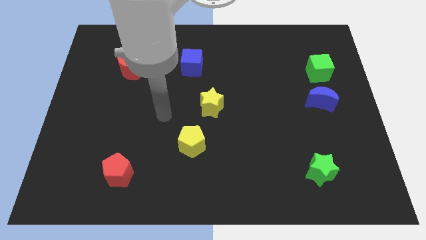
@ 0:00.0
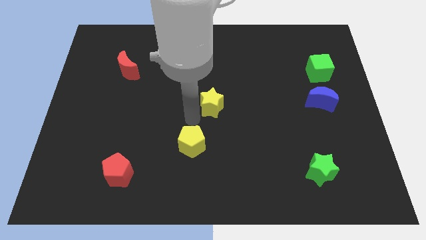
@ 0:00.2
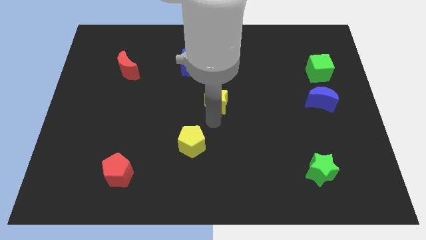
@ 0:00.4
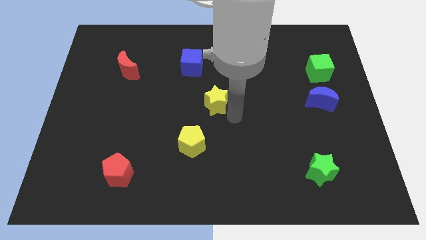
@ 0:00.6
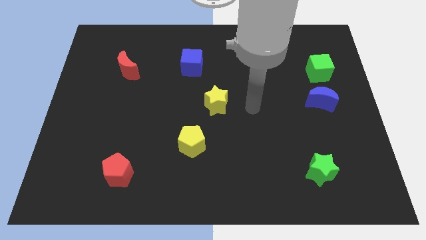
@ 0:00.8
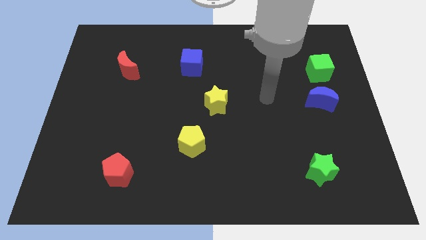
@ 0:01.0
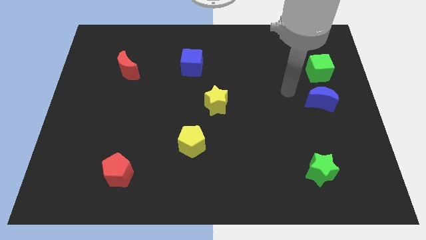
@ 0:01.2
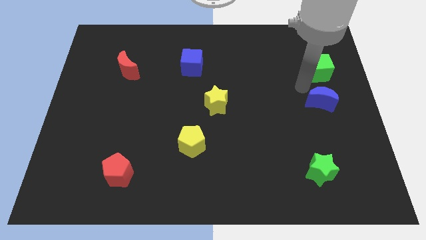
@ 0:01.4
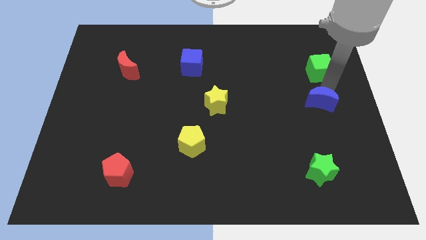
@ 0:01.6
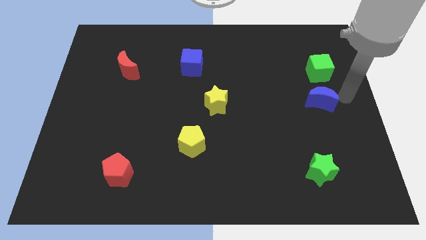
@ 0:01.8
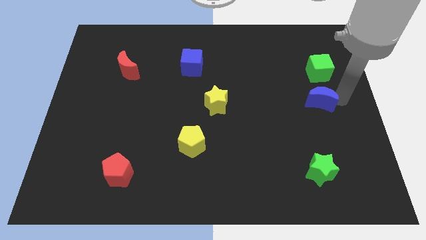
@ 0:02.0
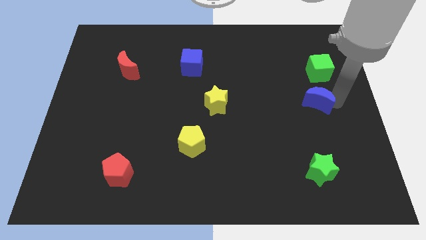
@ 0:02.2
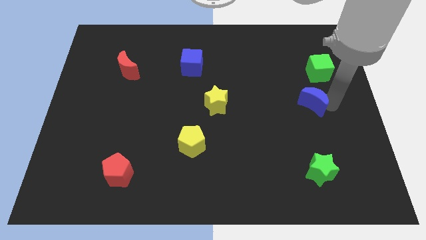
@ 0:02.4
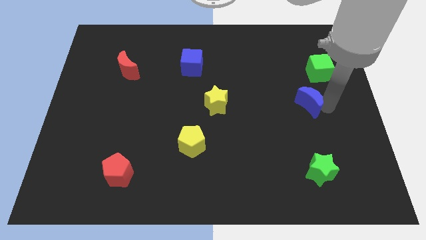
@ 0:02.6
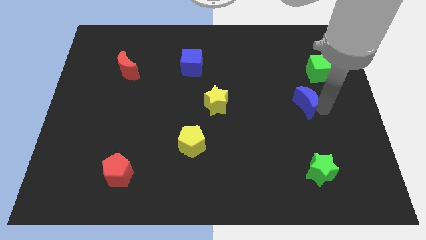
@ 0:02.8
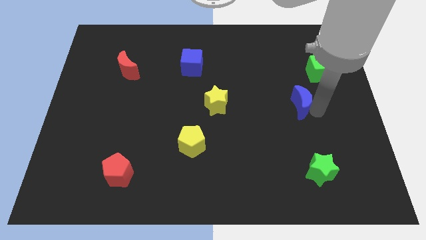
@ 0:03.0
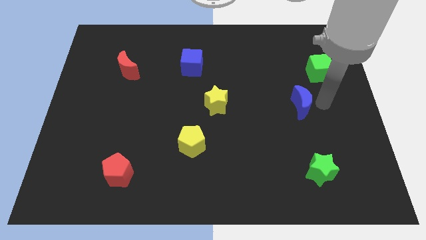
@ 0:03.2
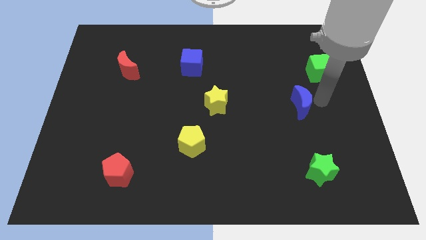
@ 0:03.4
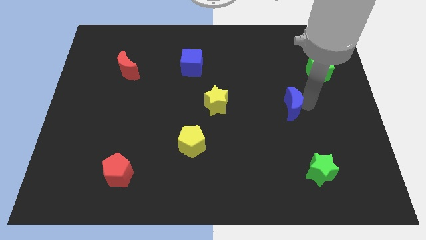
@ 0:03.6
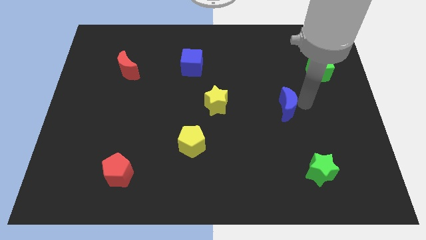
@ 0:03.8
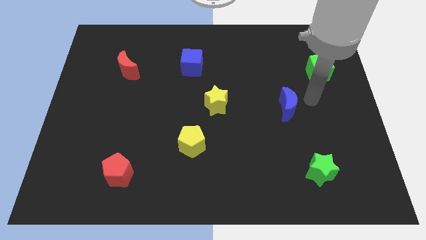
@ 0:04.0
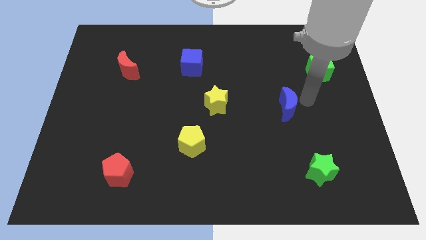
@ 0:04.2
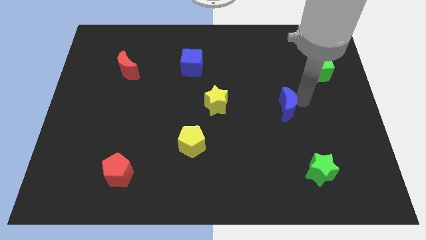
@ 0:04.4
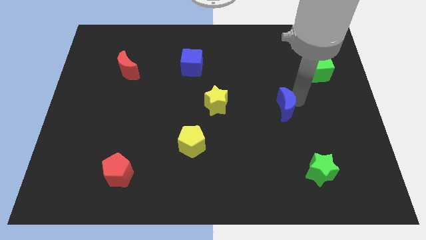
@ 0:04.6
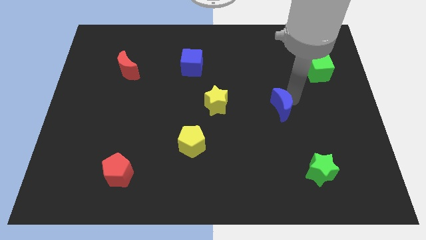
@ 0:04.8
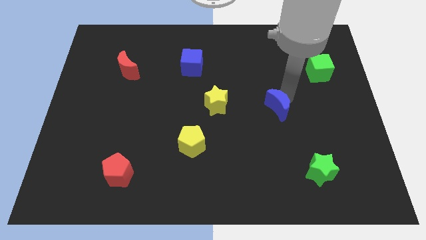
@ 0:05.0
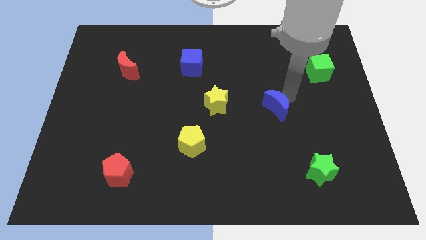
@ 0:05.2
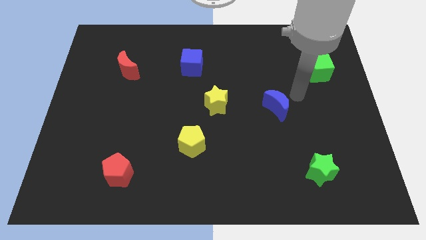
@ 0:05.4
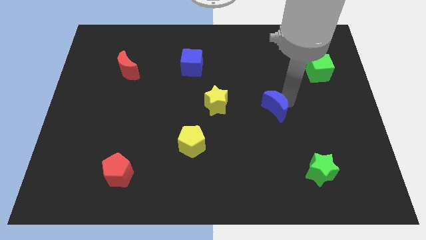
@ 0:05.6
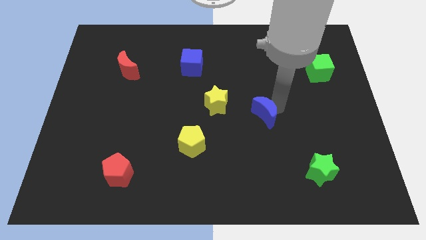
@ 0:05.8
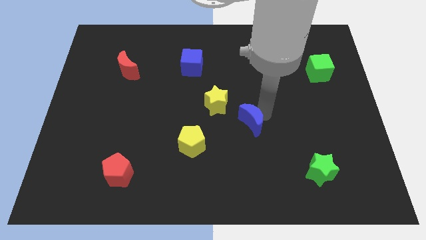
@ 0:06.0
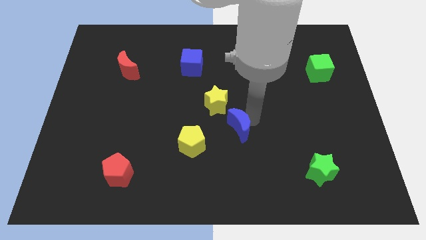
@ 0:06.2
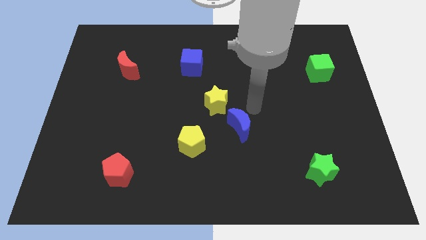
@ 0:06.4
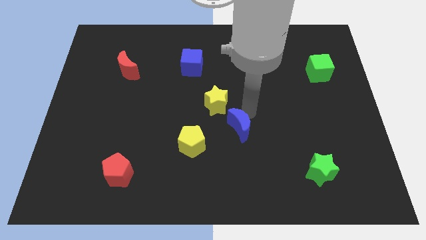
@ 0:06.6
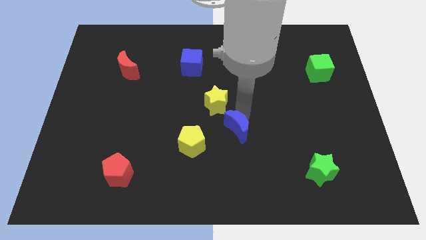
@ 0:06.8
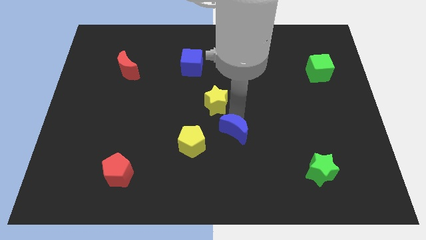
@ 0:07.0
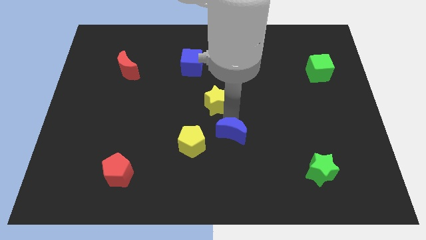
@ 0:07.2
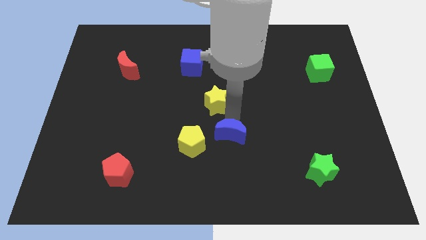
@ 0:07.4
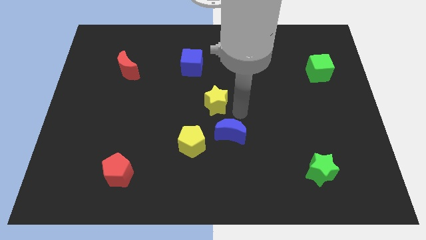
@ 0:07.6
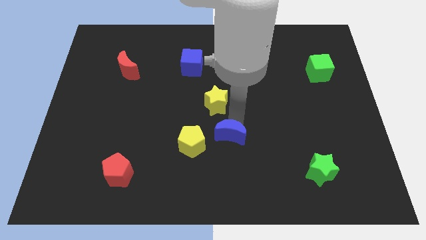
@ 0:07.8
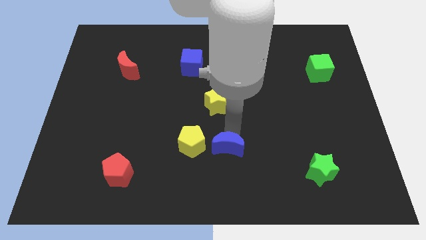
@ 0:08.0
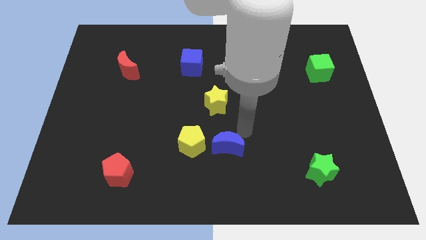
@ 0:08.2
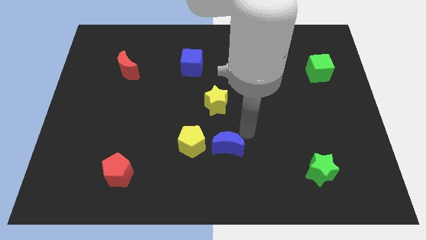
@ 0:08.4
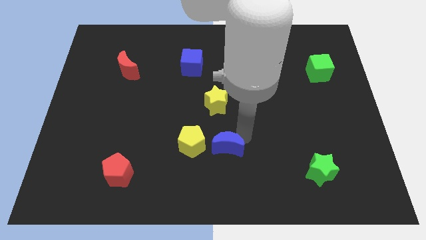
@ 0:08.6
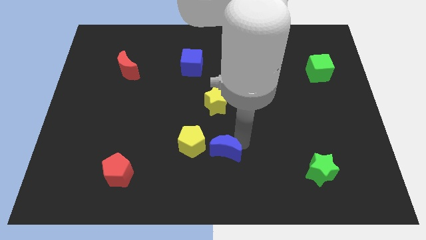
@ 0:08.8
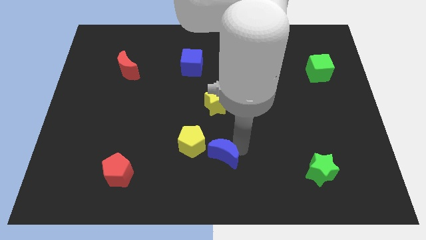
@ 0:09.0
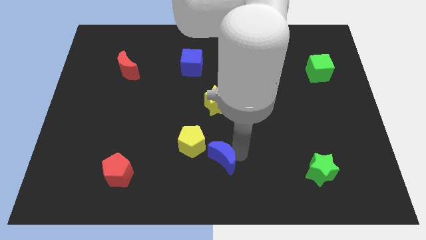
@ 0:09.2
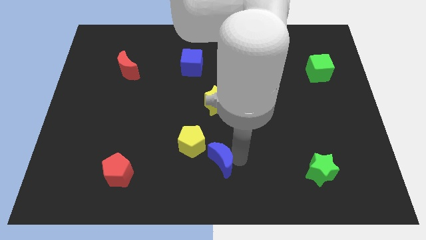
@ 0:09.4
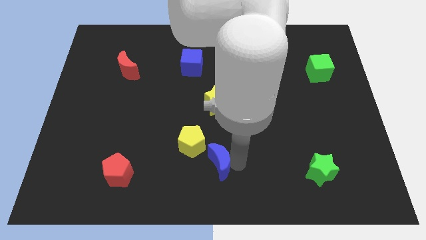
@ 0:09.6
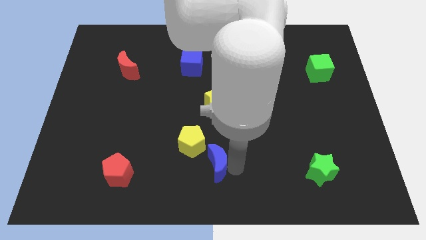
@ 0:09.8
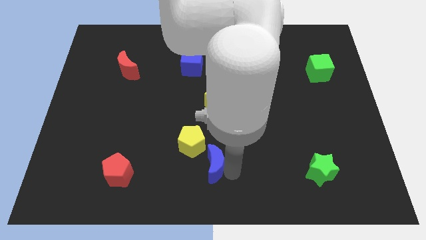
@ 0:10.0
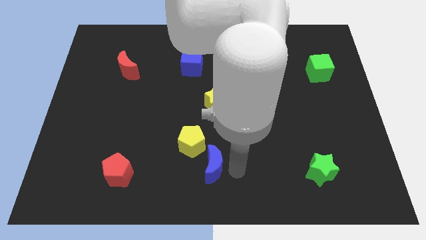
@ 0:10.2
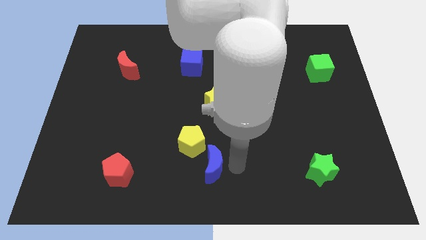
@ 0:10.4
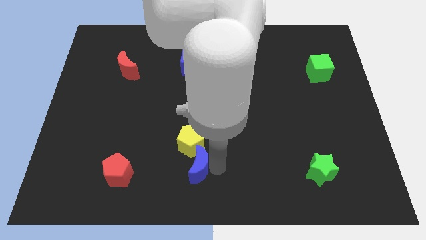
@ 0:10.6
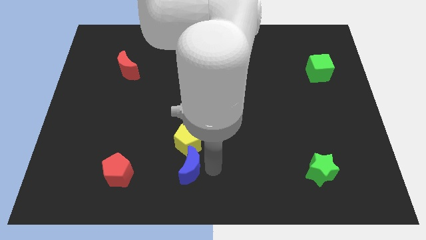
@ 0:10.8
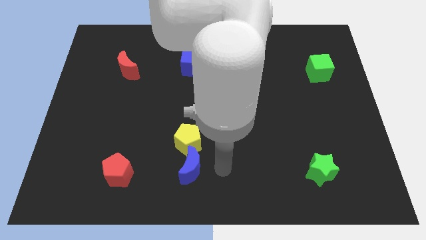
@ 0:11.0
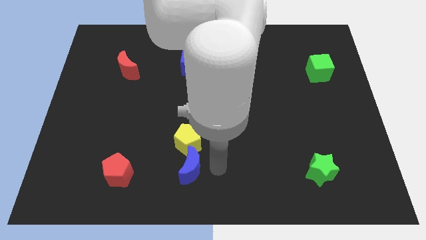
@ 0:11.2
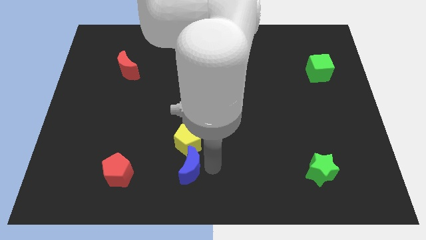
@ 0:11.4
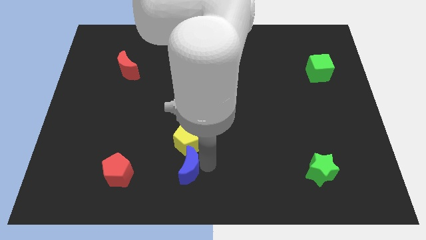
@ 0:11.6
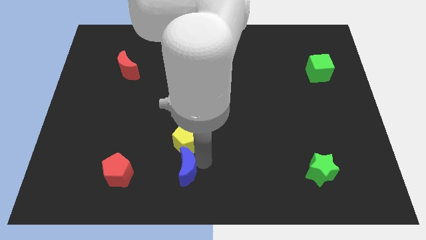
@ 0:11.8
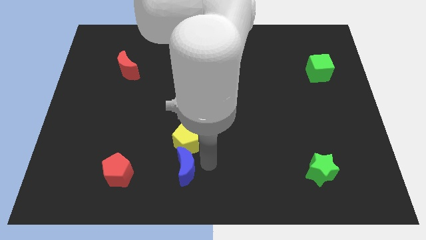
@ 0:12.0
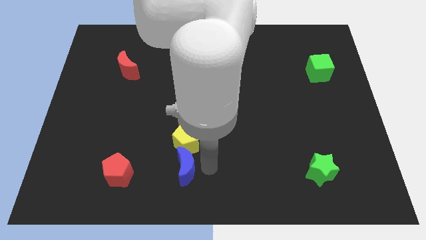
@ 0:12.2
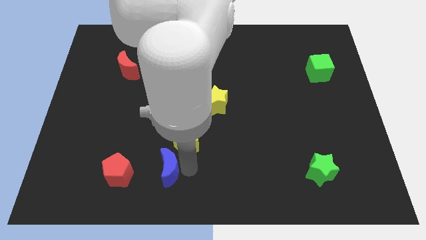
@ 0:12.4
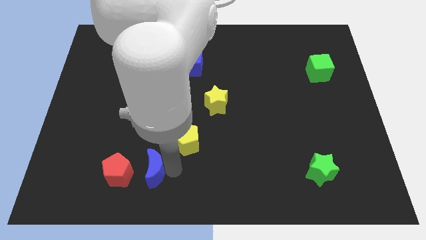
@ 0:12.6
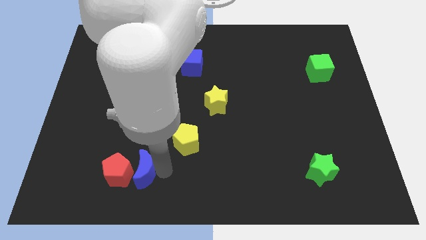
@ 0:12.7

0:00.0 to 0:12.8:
slide the blue moon towards the red pentagon

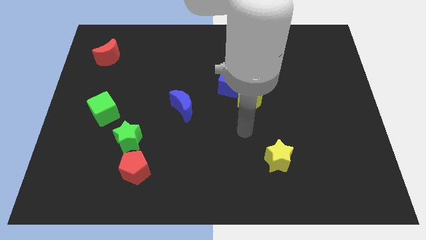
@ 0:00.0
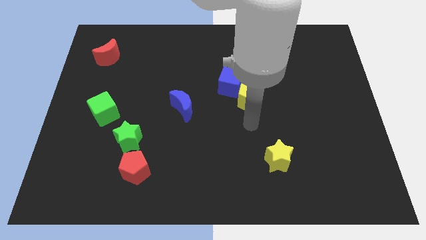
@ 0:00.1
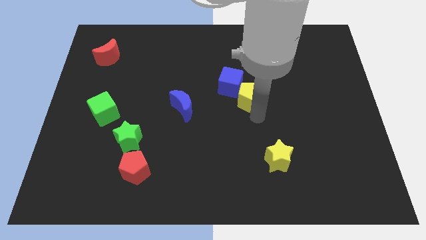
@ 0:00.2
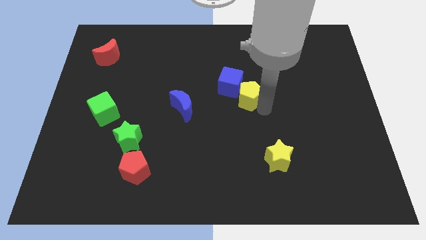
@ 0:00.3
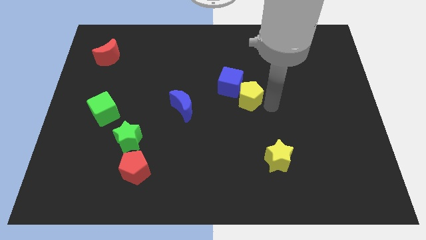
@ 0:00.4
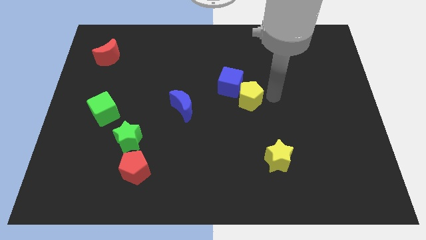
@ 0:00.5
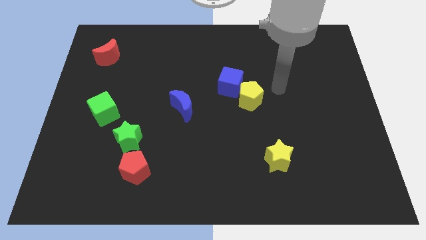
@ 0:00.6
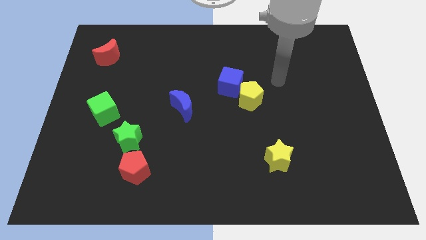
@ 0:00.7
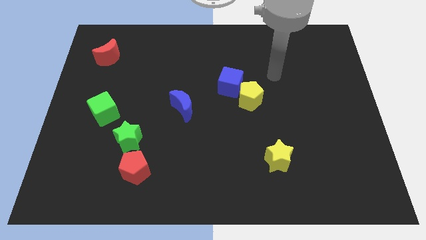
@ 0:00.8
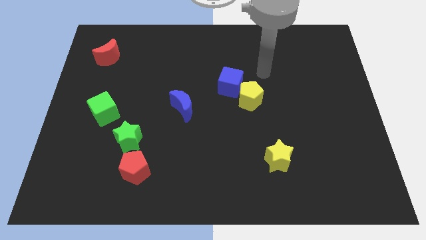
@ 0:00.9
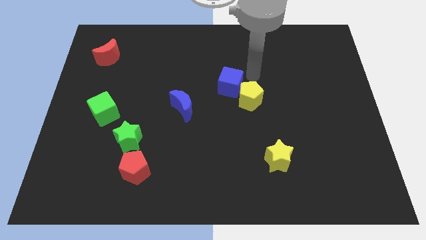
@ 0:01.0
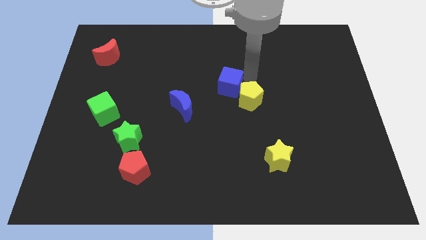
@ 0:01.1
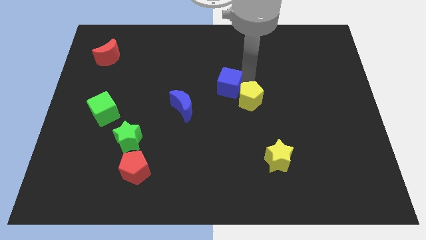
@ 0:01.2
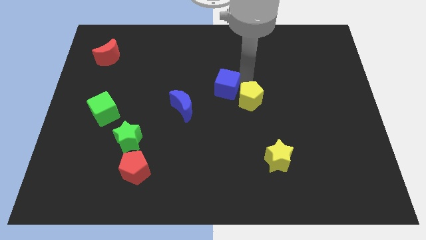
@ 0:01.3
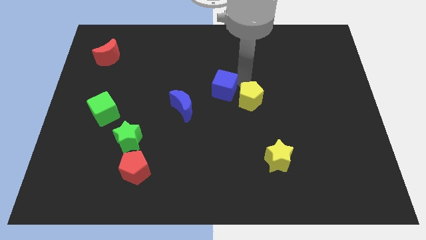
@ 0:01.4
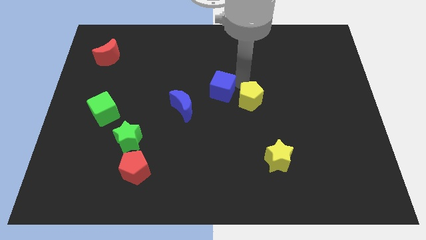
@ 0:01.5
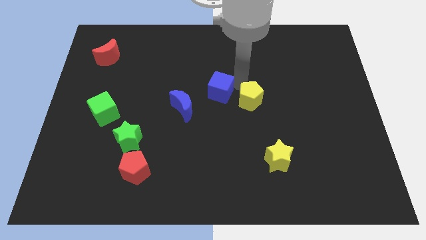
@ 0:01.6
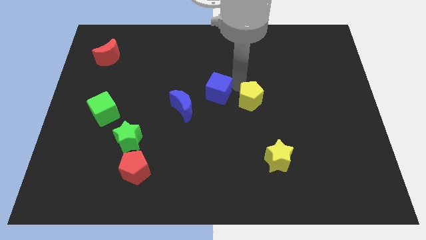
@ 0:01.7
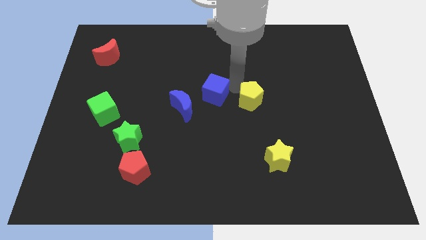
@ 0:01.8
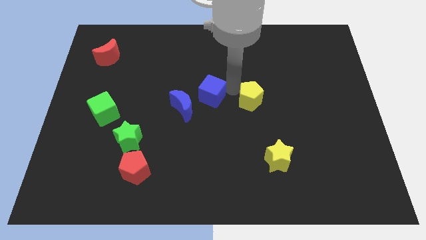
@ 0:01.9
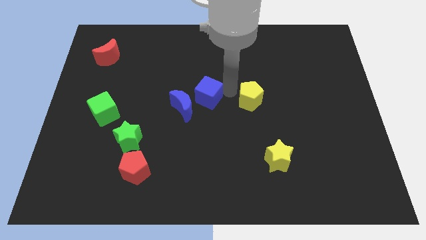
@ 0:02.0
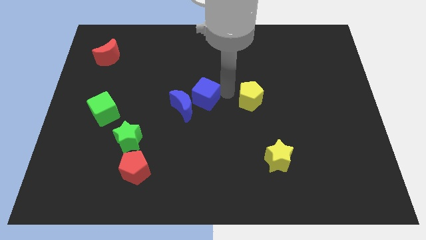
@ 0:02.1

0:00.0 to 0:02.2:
slide the blue cube to the blue moon
